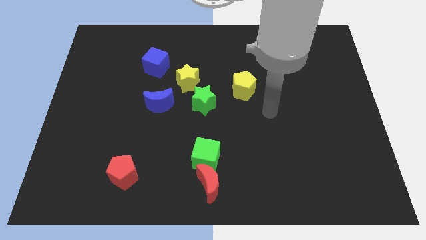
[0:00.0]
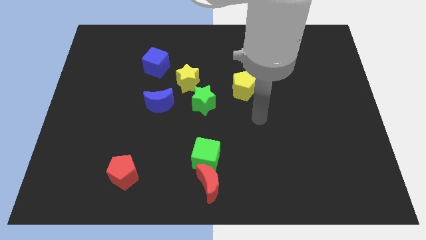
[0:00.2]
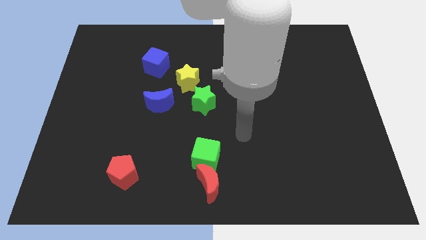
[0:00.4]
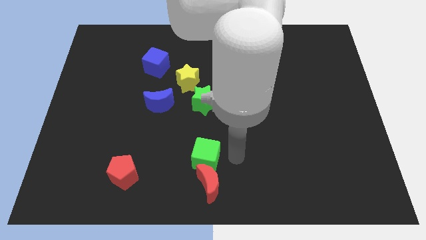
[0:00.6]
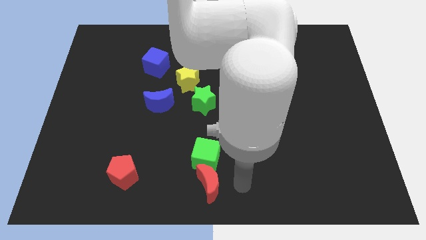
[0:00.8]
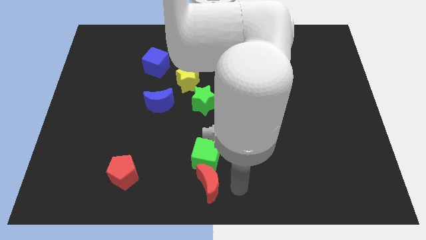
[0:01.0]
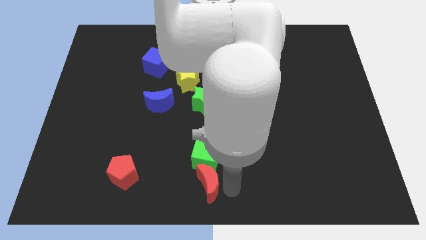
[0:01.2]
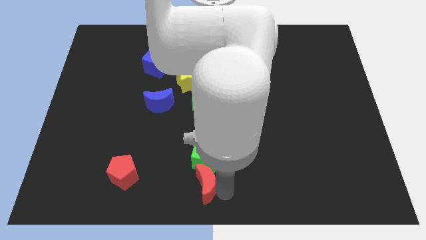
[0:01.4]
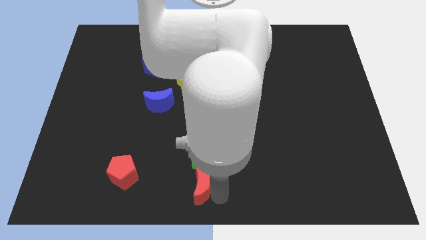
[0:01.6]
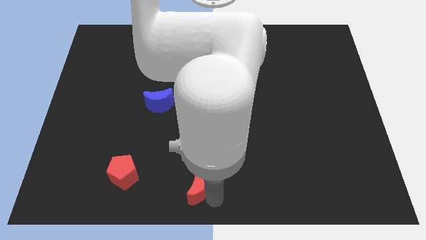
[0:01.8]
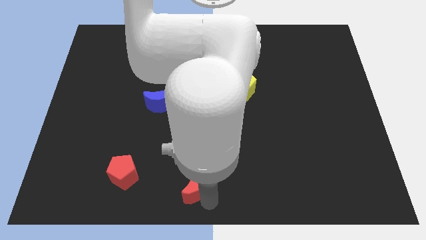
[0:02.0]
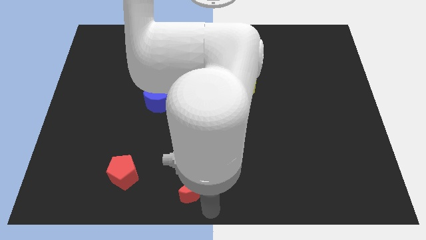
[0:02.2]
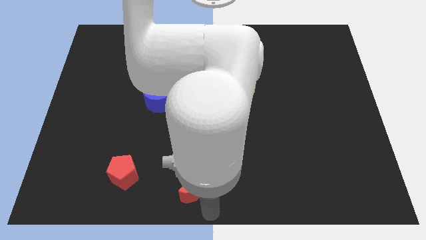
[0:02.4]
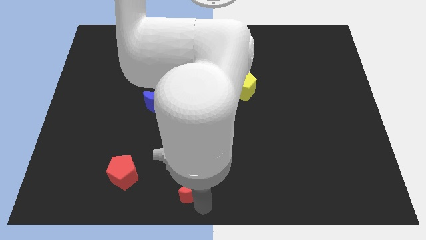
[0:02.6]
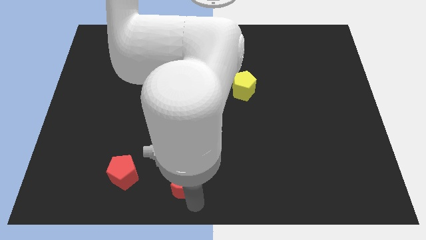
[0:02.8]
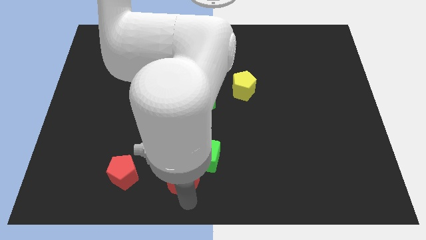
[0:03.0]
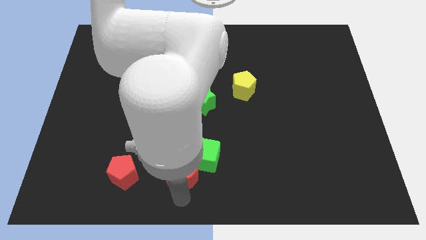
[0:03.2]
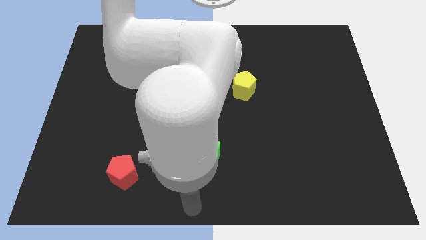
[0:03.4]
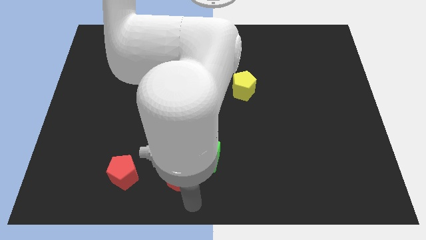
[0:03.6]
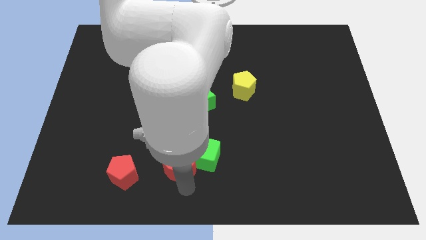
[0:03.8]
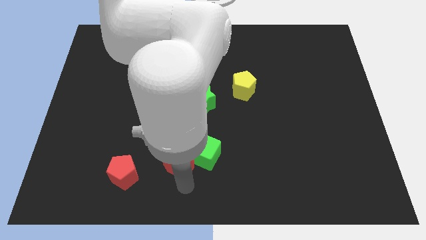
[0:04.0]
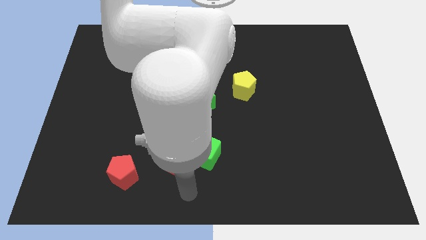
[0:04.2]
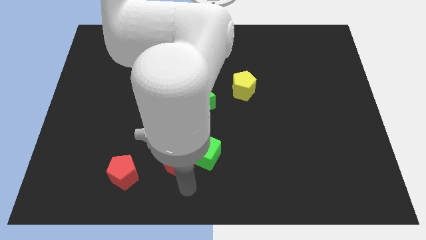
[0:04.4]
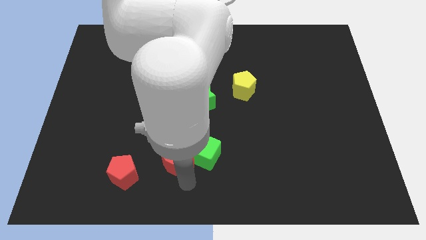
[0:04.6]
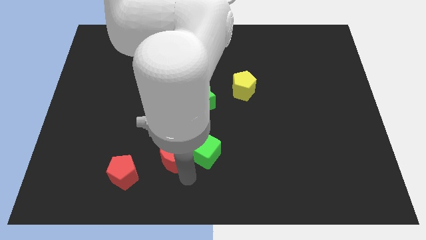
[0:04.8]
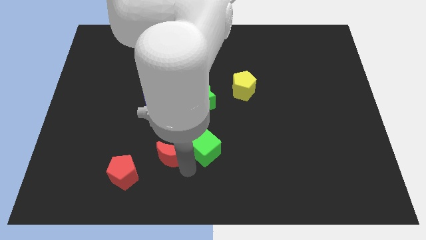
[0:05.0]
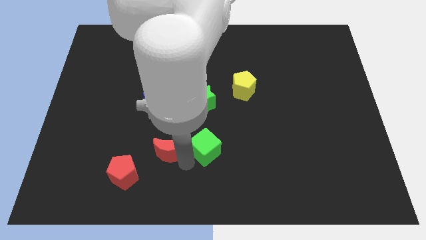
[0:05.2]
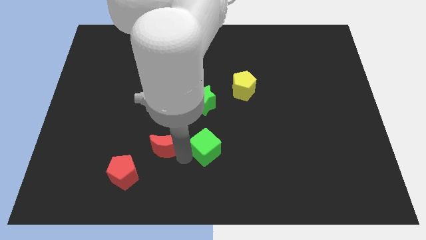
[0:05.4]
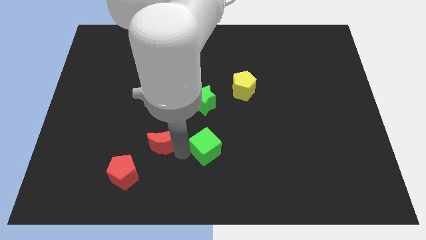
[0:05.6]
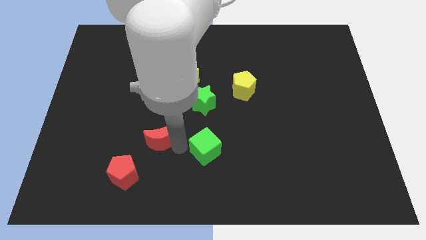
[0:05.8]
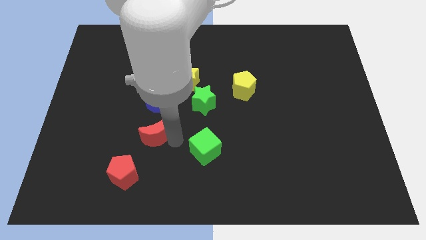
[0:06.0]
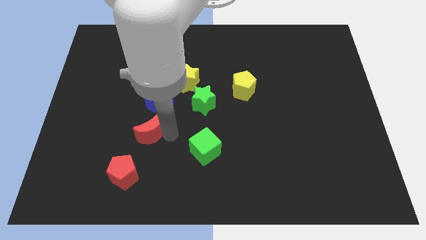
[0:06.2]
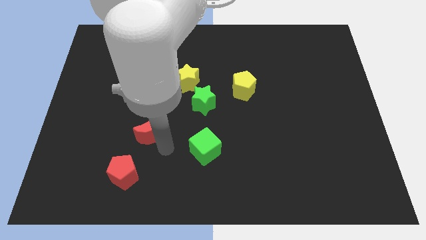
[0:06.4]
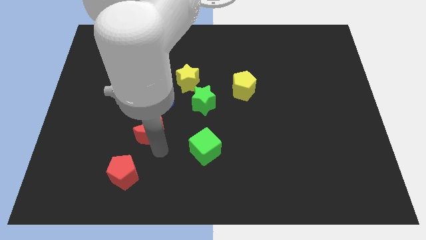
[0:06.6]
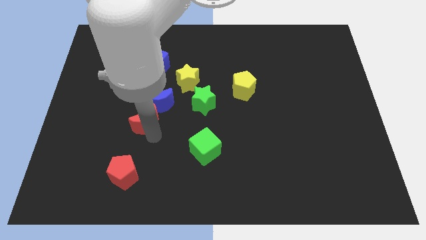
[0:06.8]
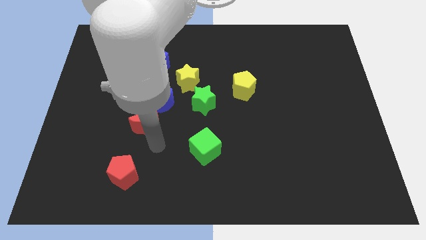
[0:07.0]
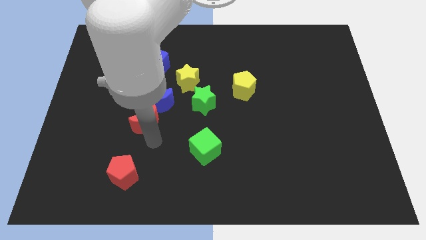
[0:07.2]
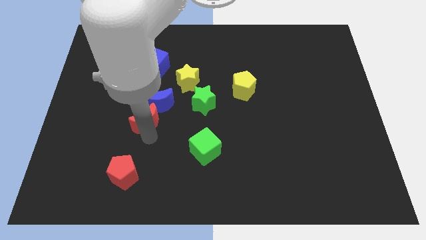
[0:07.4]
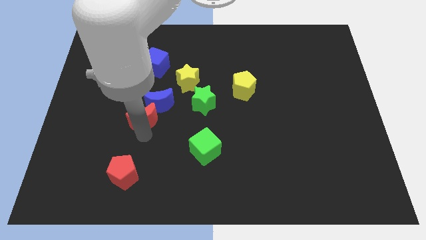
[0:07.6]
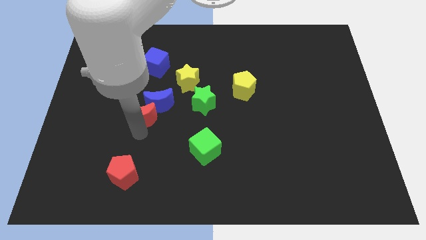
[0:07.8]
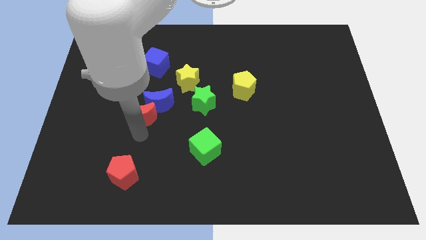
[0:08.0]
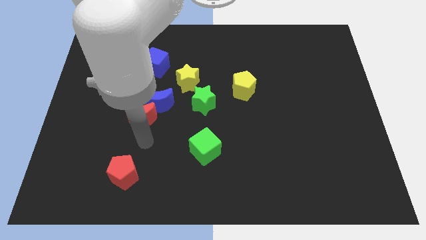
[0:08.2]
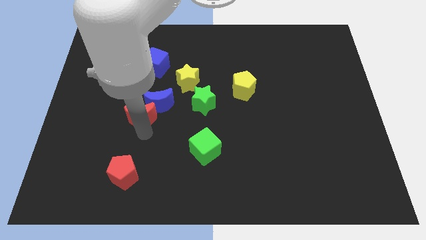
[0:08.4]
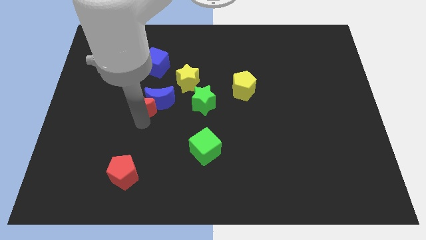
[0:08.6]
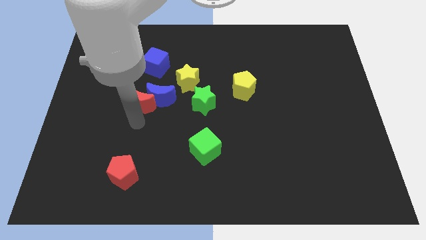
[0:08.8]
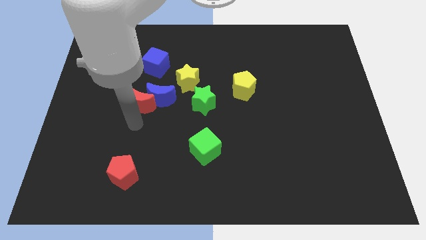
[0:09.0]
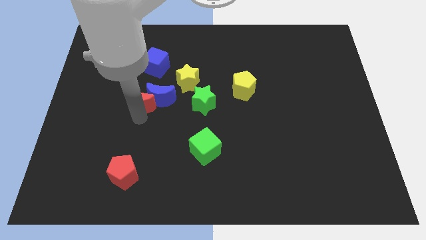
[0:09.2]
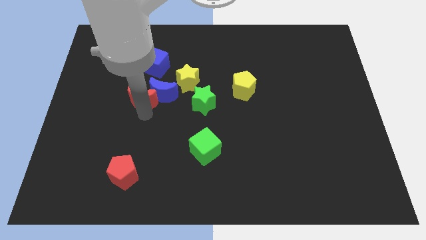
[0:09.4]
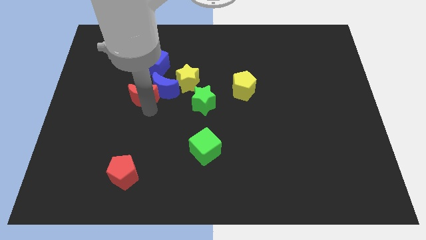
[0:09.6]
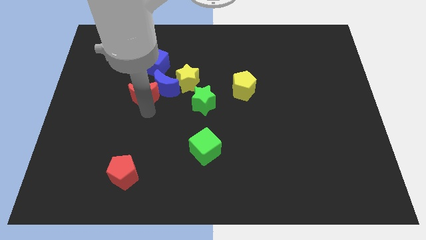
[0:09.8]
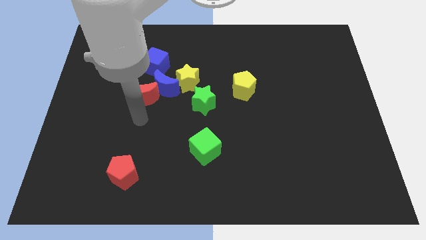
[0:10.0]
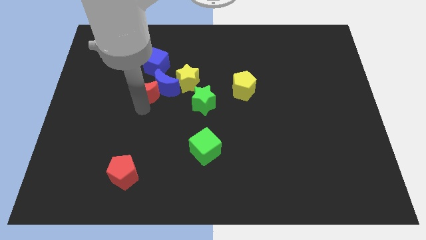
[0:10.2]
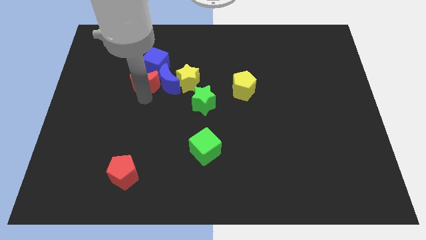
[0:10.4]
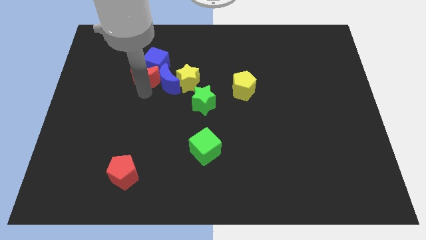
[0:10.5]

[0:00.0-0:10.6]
put the red moon to the blue cube

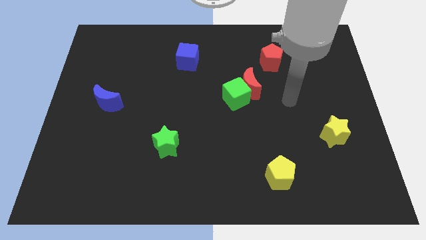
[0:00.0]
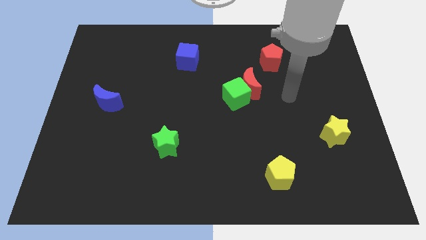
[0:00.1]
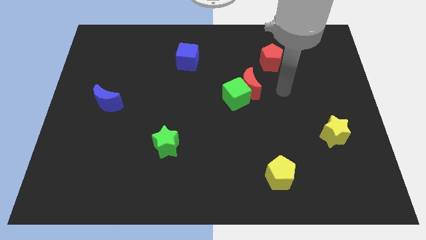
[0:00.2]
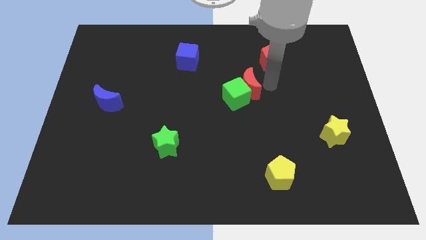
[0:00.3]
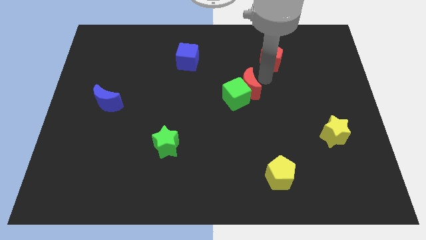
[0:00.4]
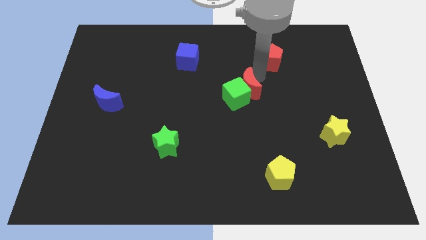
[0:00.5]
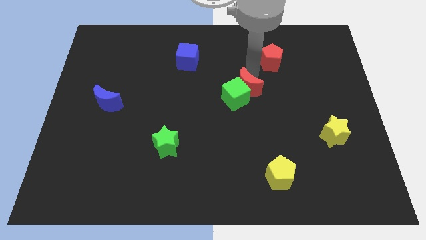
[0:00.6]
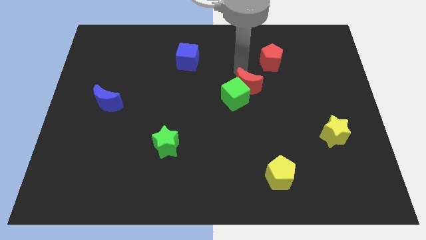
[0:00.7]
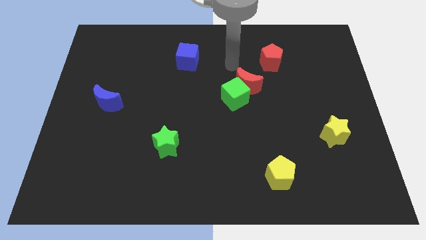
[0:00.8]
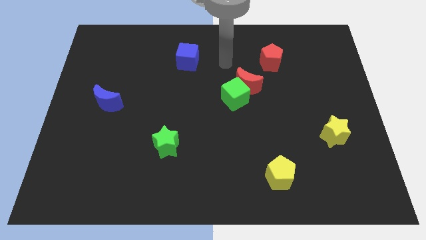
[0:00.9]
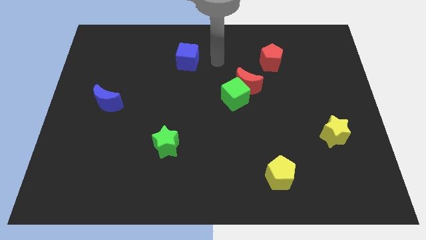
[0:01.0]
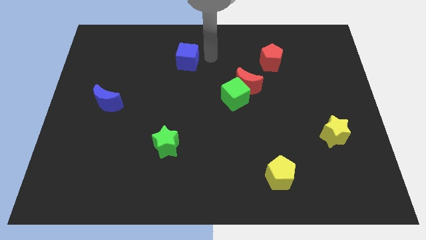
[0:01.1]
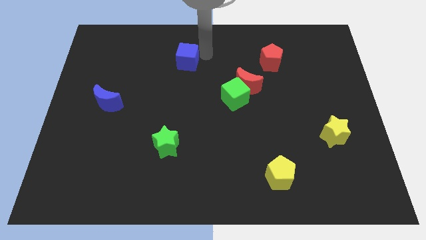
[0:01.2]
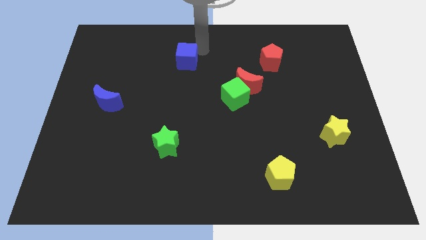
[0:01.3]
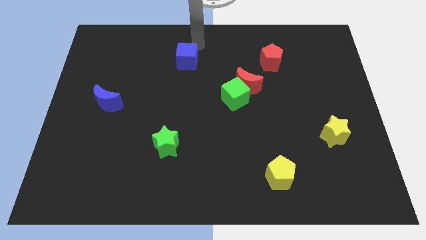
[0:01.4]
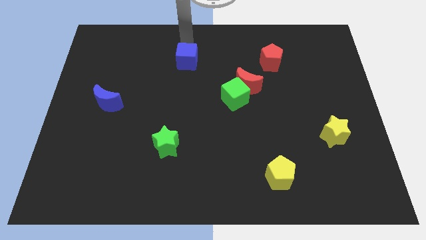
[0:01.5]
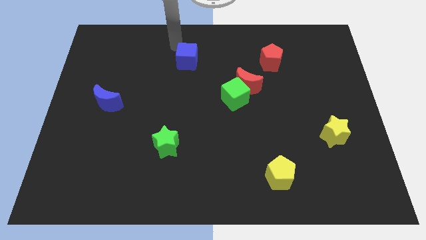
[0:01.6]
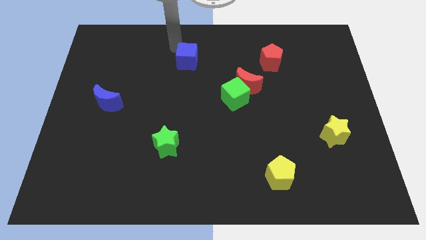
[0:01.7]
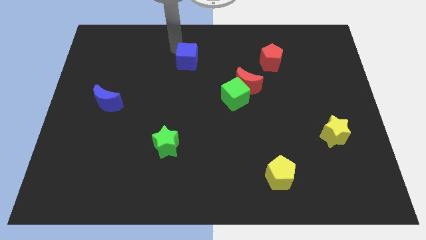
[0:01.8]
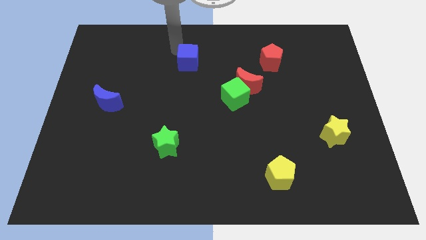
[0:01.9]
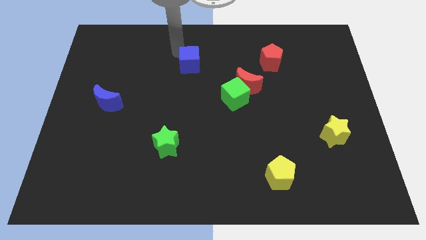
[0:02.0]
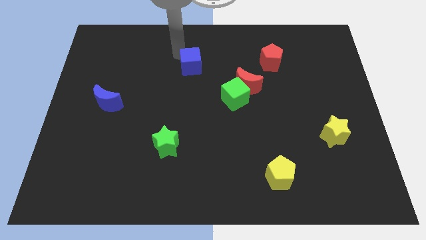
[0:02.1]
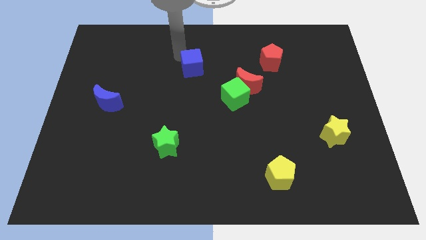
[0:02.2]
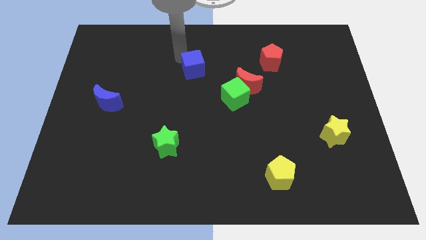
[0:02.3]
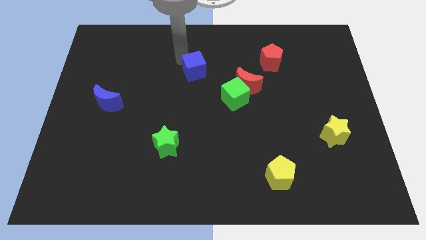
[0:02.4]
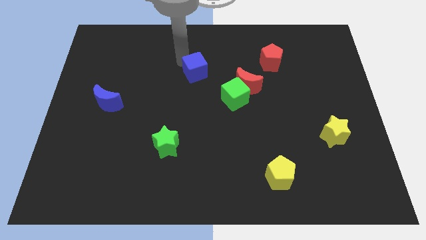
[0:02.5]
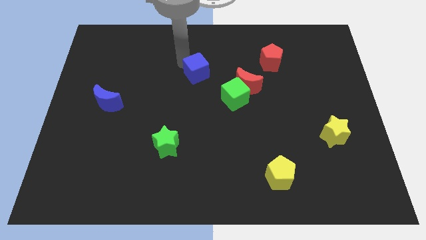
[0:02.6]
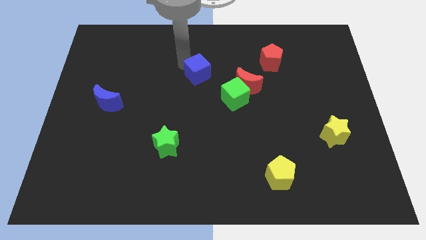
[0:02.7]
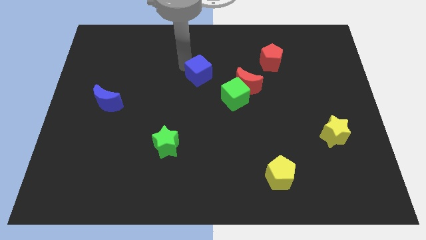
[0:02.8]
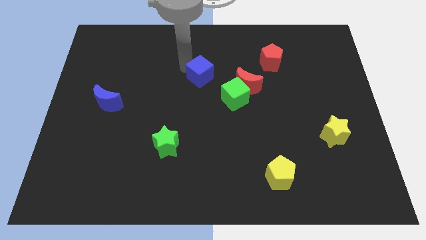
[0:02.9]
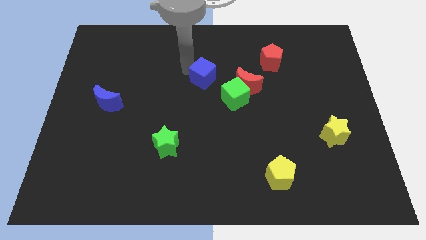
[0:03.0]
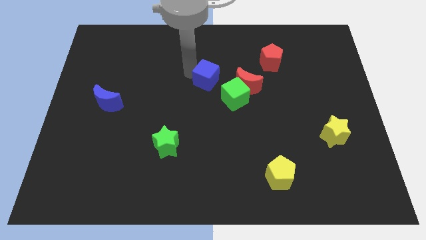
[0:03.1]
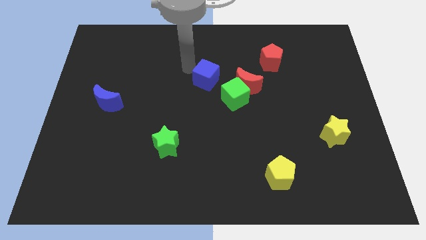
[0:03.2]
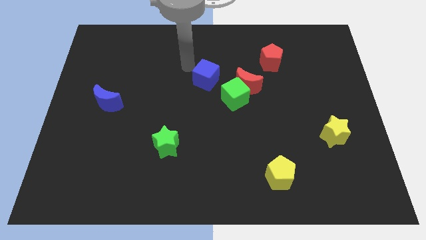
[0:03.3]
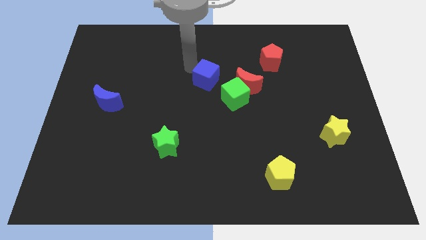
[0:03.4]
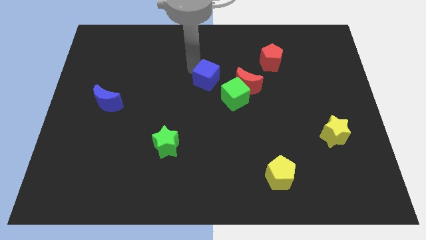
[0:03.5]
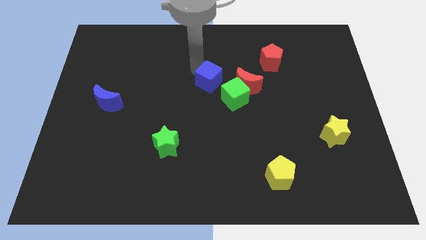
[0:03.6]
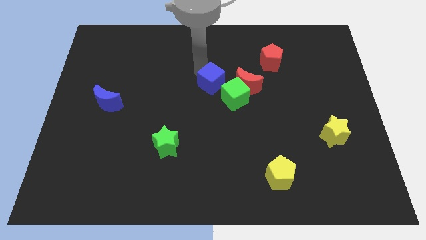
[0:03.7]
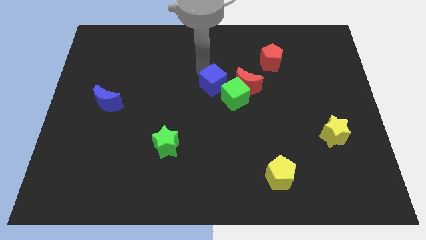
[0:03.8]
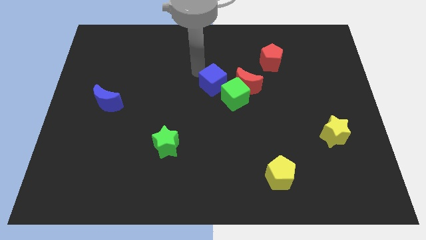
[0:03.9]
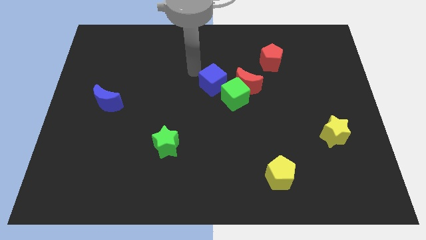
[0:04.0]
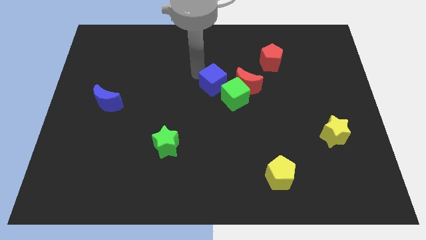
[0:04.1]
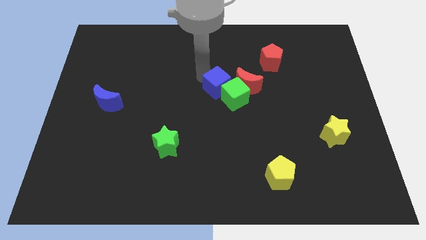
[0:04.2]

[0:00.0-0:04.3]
put the blue cube next to the green cube
